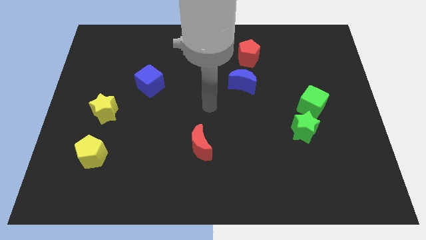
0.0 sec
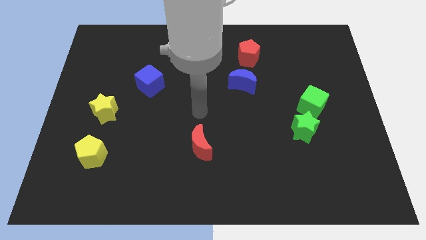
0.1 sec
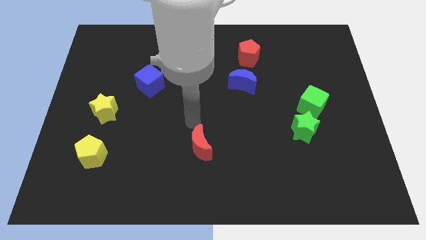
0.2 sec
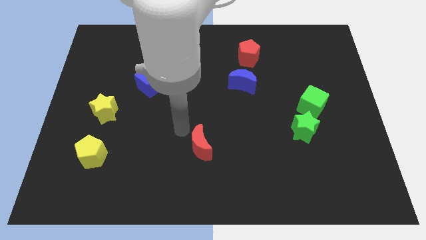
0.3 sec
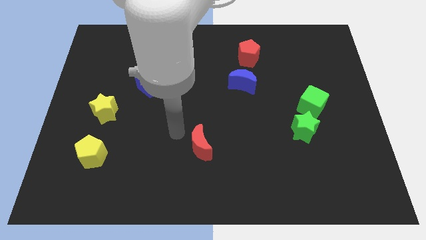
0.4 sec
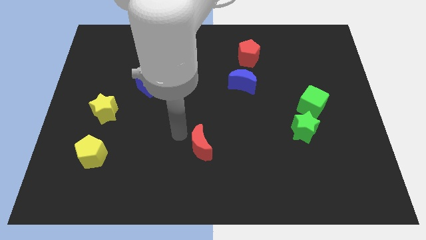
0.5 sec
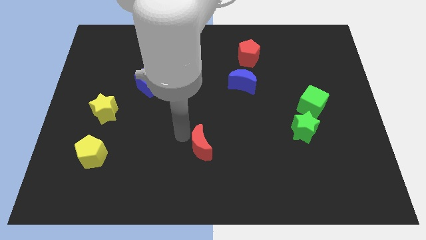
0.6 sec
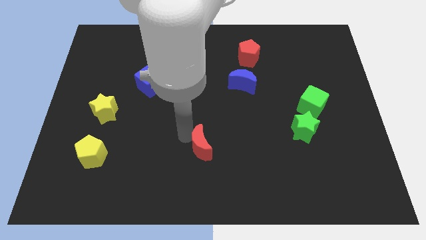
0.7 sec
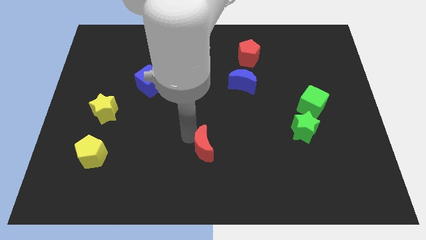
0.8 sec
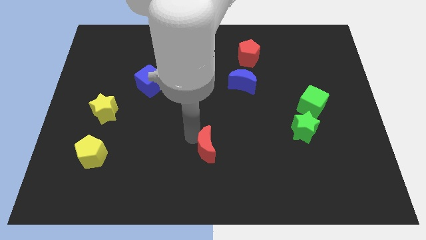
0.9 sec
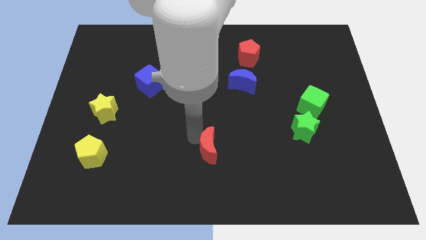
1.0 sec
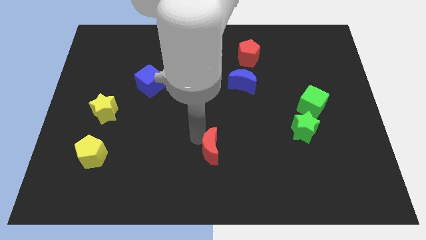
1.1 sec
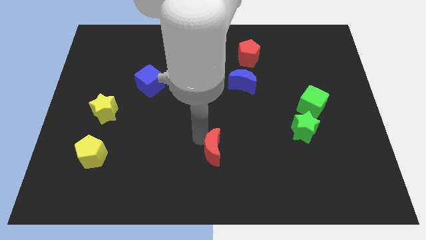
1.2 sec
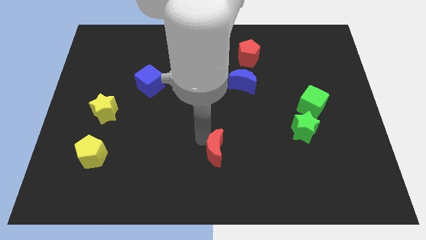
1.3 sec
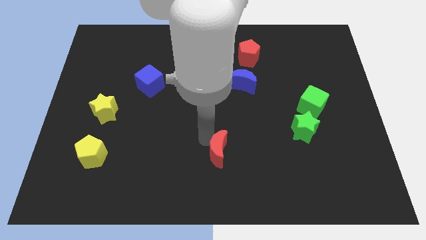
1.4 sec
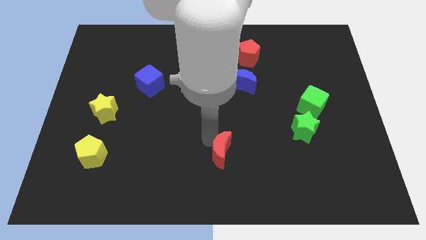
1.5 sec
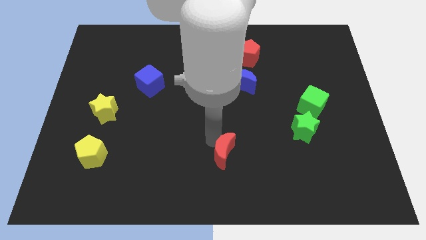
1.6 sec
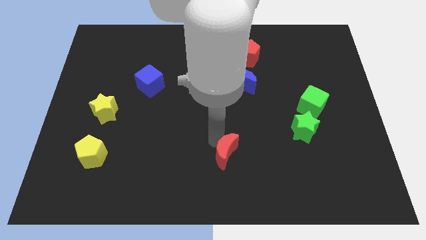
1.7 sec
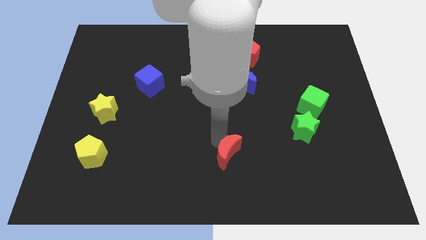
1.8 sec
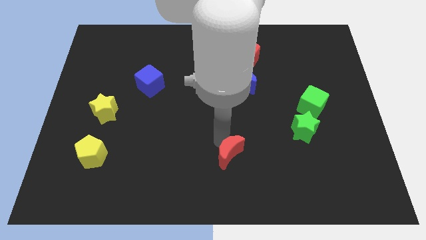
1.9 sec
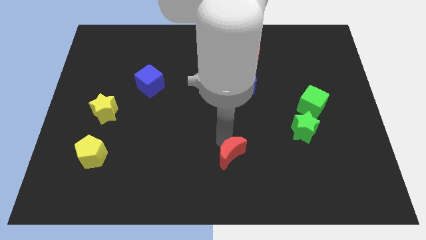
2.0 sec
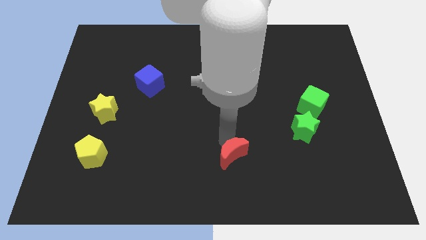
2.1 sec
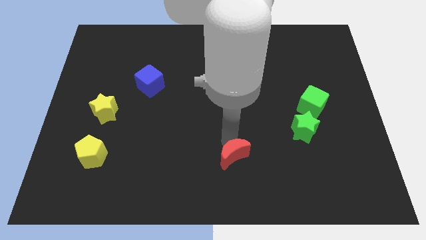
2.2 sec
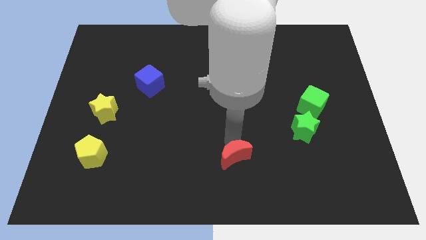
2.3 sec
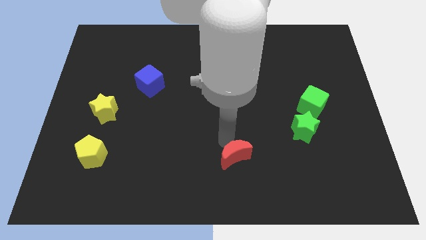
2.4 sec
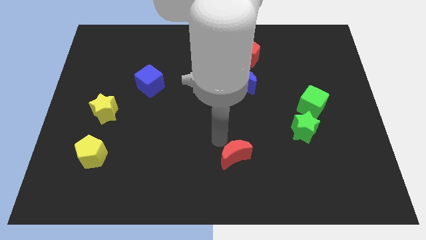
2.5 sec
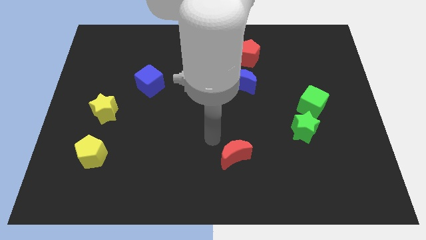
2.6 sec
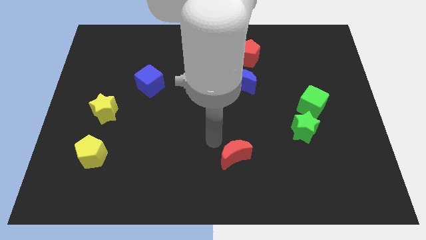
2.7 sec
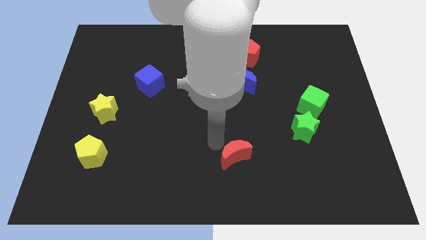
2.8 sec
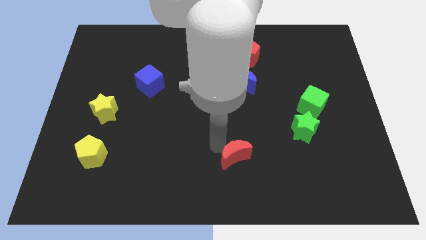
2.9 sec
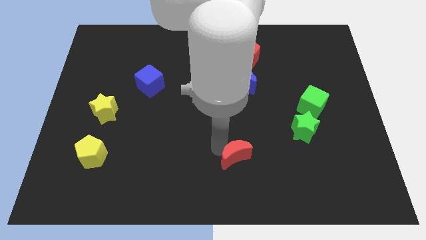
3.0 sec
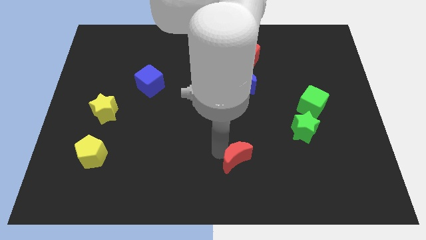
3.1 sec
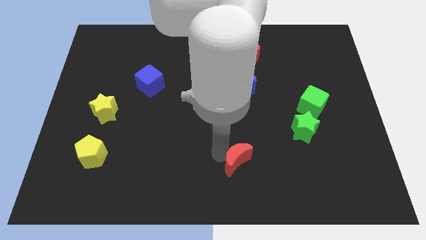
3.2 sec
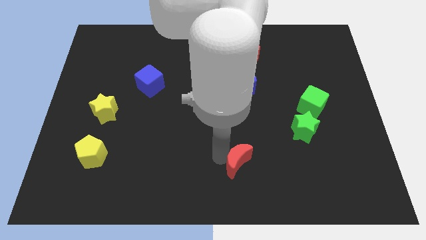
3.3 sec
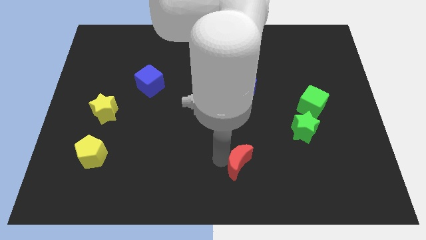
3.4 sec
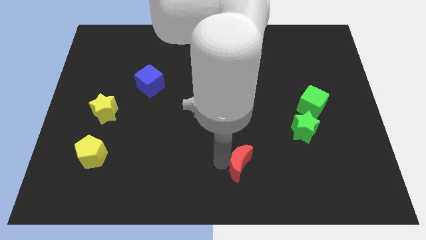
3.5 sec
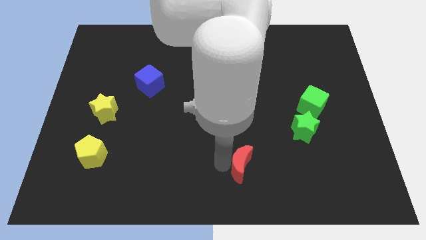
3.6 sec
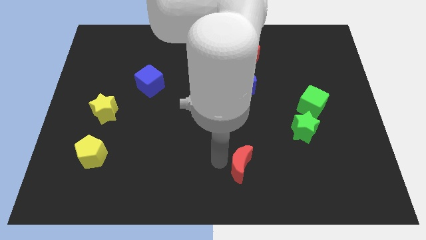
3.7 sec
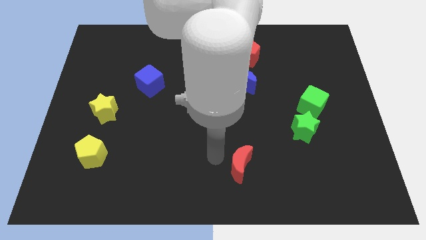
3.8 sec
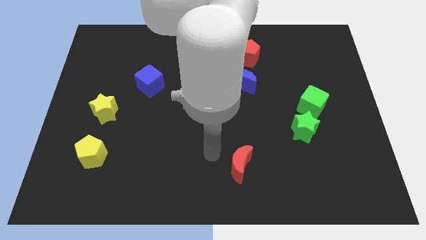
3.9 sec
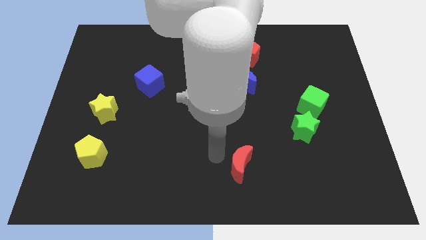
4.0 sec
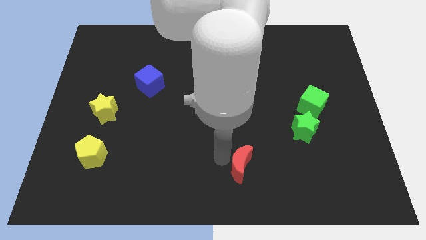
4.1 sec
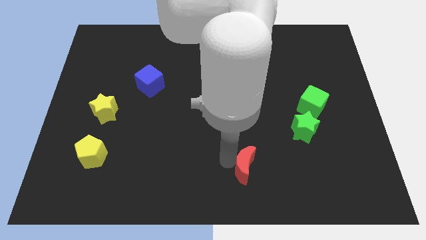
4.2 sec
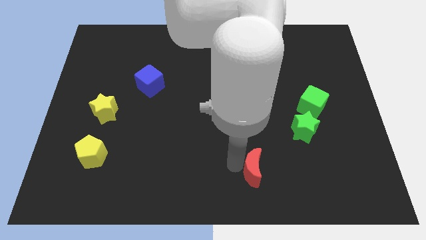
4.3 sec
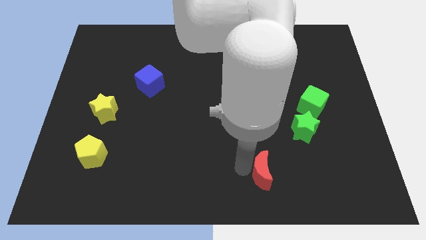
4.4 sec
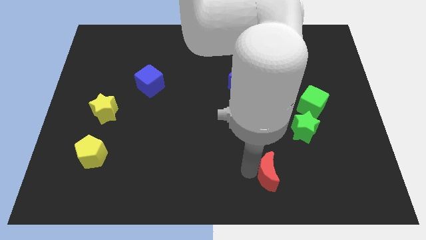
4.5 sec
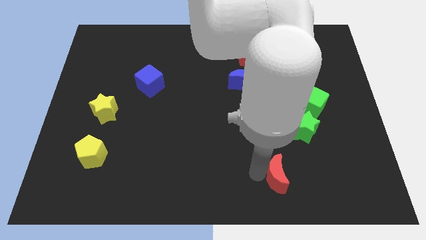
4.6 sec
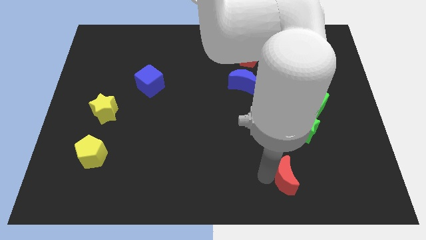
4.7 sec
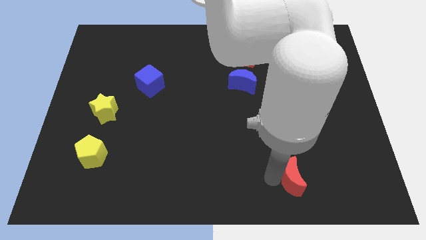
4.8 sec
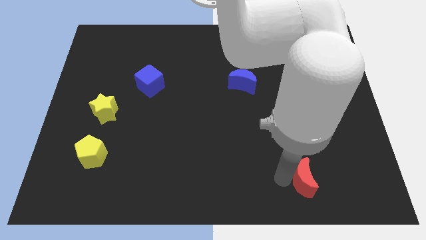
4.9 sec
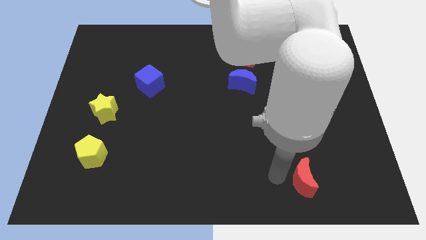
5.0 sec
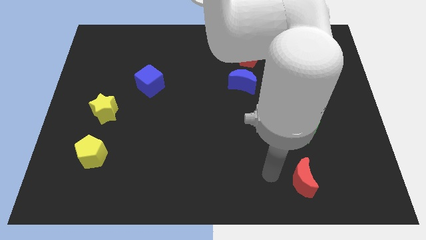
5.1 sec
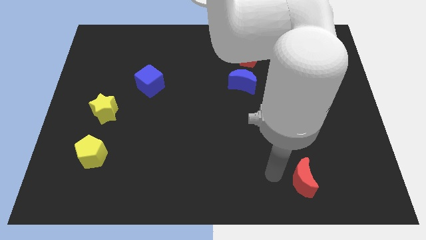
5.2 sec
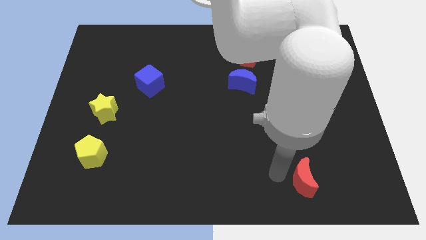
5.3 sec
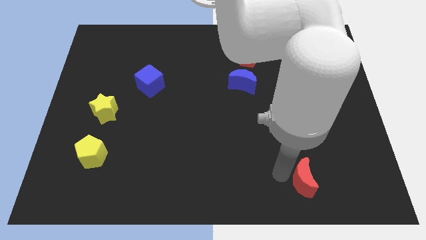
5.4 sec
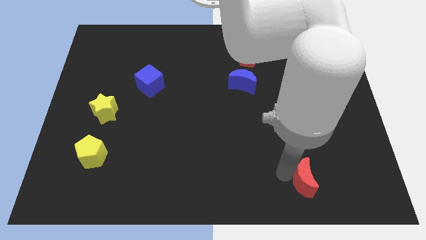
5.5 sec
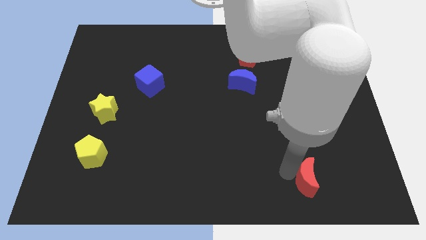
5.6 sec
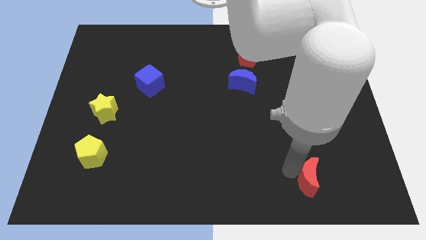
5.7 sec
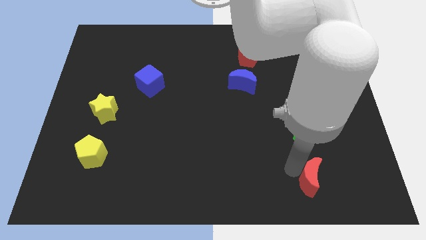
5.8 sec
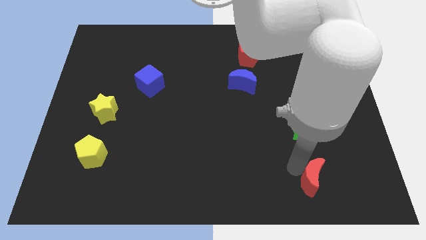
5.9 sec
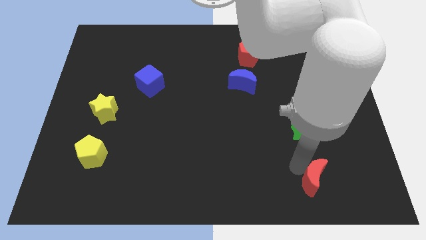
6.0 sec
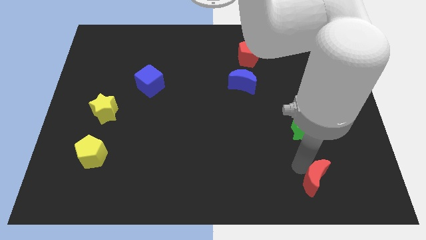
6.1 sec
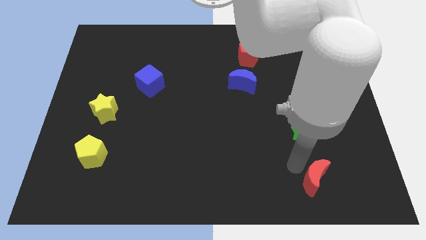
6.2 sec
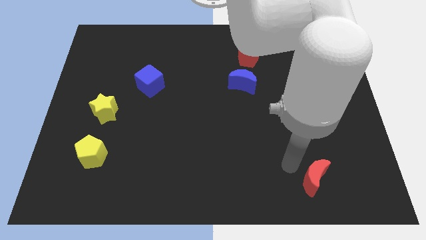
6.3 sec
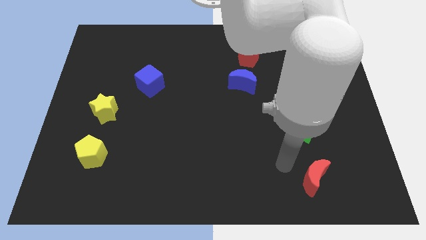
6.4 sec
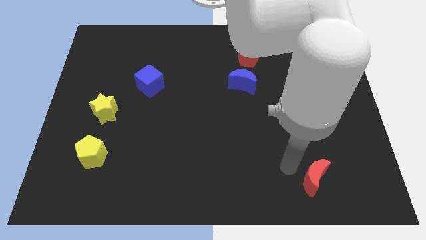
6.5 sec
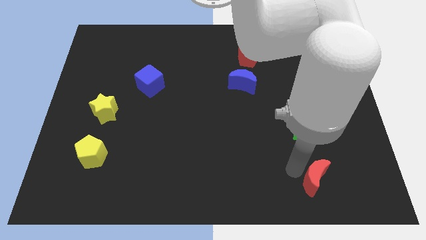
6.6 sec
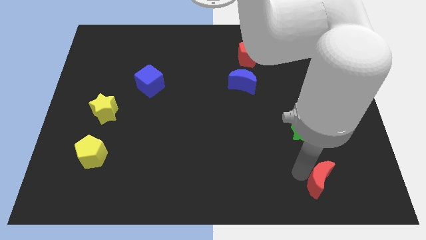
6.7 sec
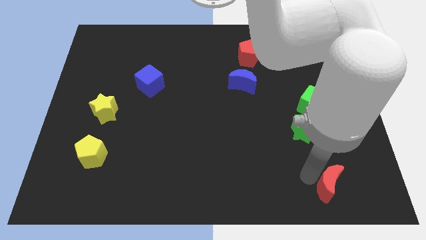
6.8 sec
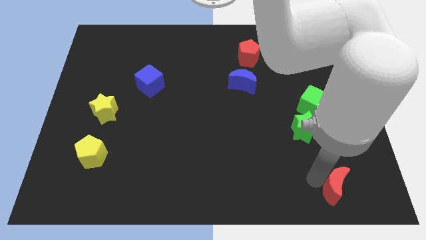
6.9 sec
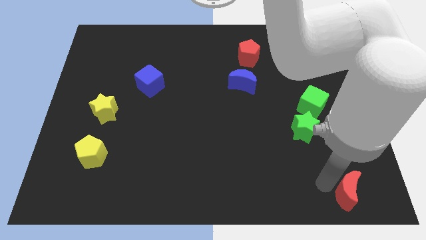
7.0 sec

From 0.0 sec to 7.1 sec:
put the red moon to the bottom right
